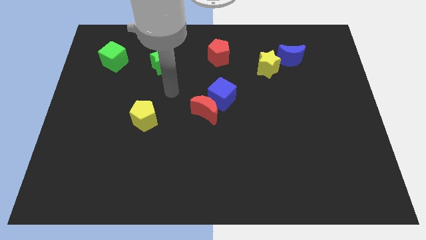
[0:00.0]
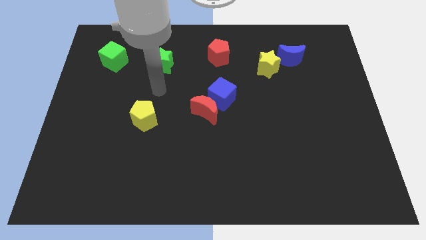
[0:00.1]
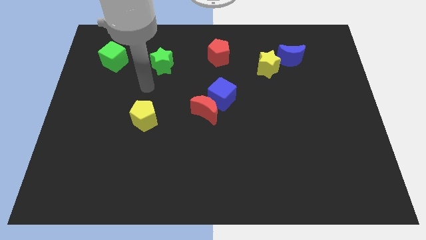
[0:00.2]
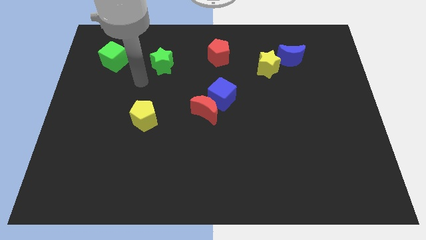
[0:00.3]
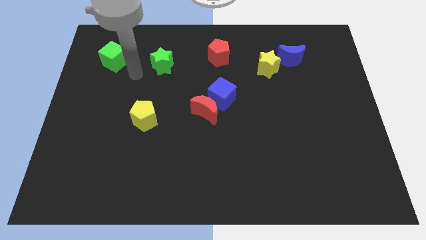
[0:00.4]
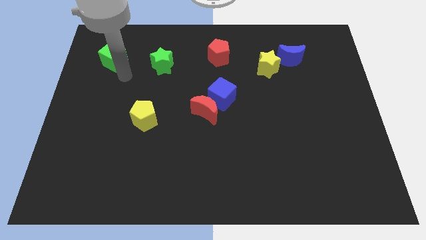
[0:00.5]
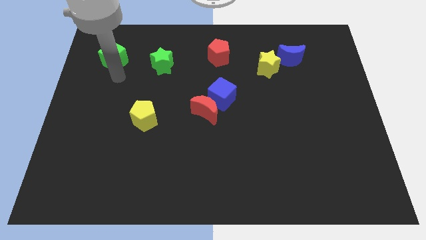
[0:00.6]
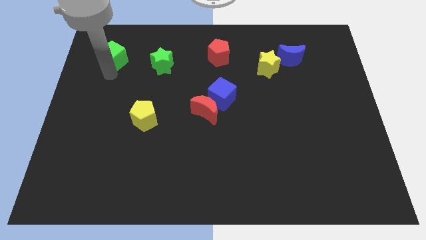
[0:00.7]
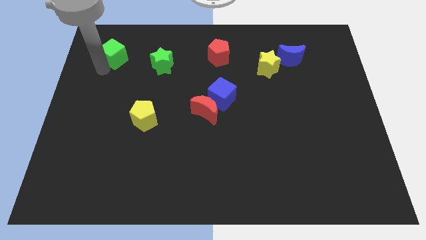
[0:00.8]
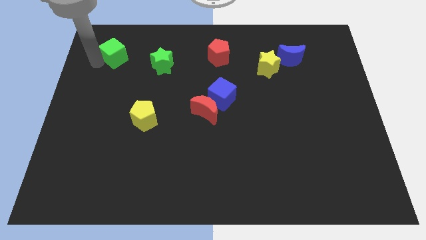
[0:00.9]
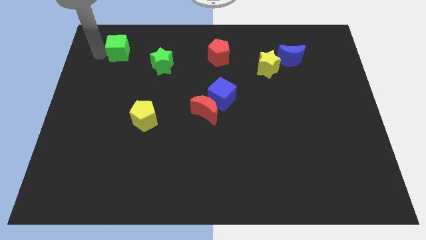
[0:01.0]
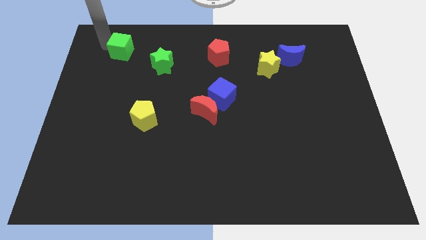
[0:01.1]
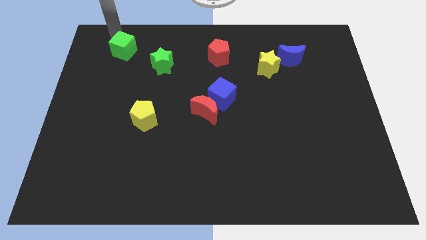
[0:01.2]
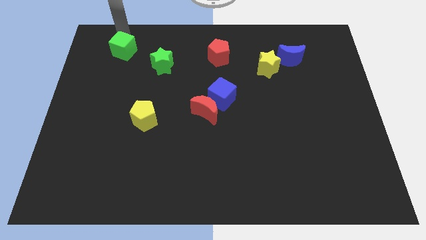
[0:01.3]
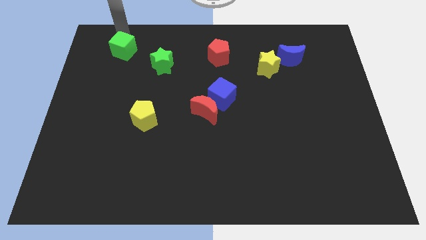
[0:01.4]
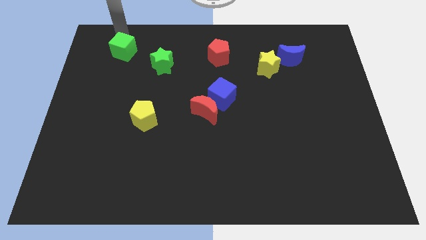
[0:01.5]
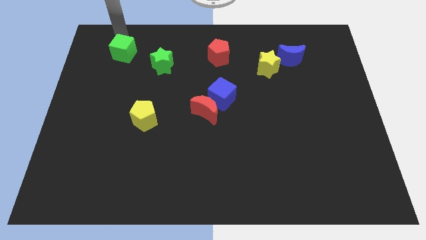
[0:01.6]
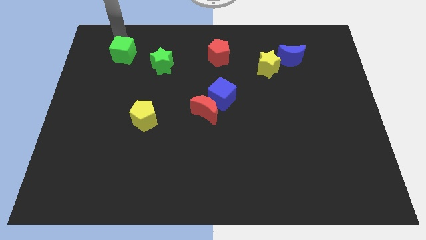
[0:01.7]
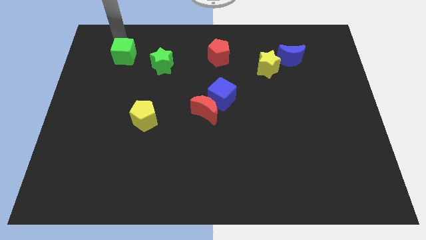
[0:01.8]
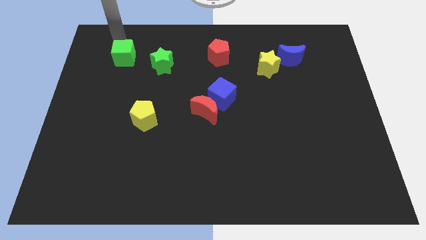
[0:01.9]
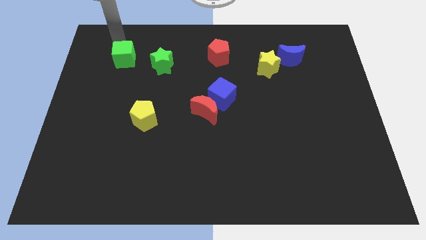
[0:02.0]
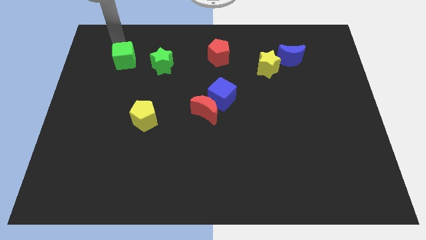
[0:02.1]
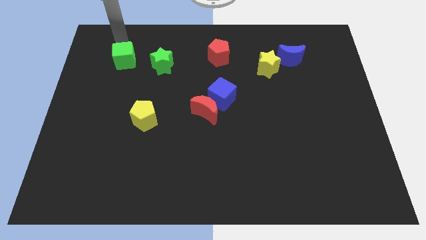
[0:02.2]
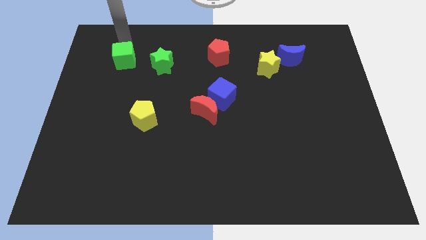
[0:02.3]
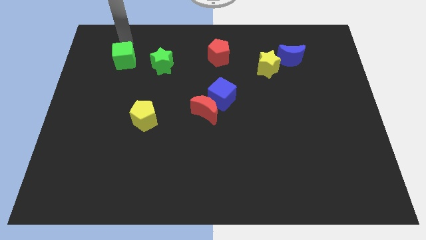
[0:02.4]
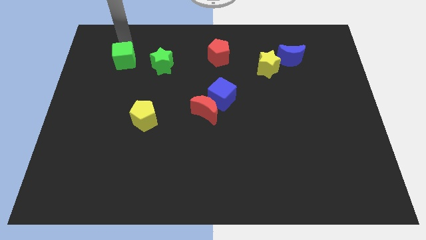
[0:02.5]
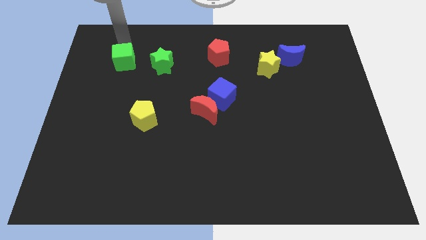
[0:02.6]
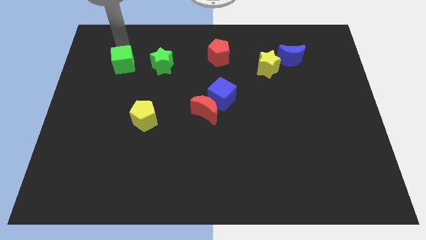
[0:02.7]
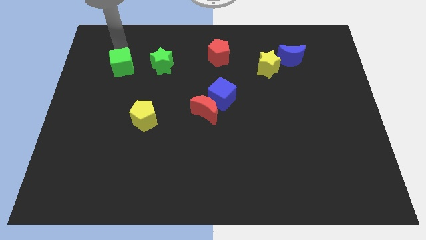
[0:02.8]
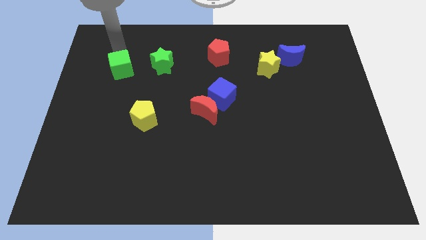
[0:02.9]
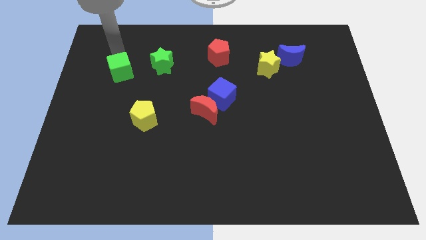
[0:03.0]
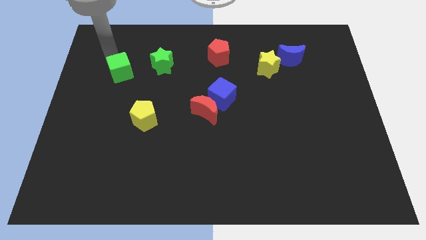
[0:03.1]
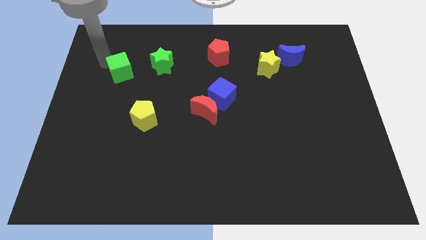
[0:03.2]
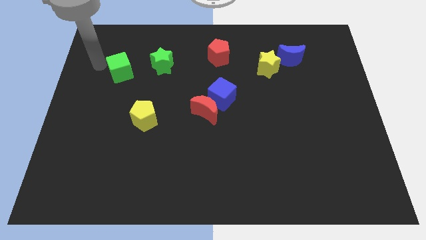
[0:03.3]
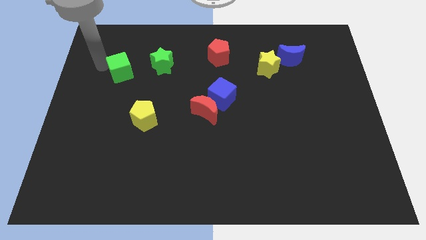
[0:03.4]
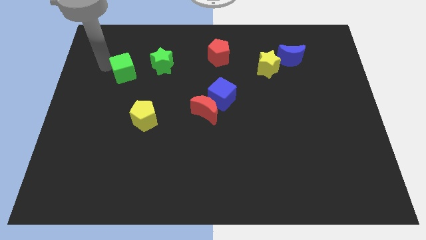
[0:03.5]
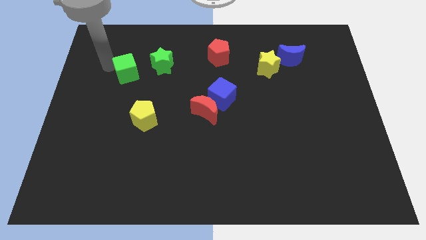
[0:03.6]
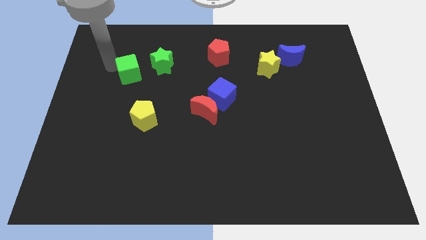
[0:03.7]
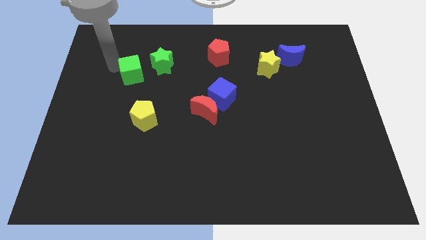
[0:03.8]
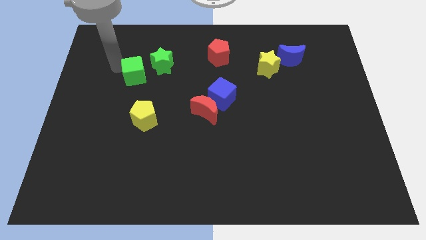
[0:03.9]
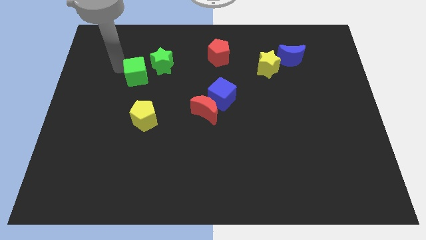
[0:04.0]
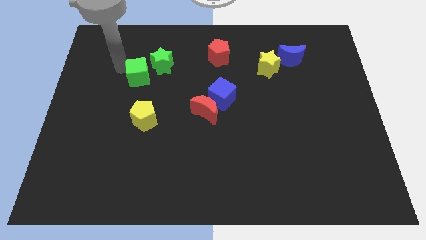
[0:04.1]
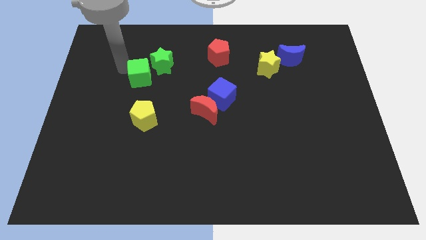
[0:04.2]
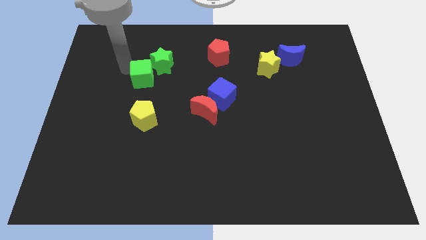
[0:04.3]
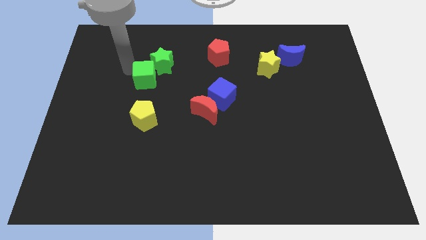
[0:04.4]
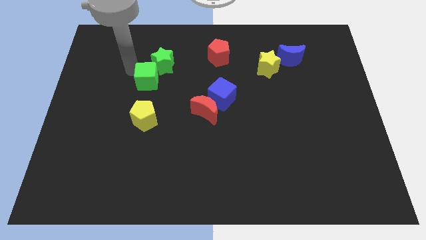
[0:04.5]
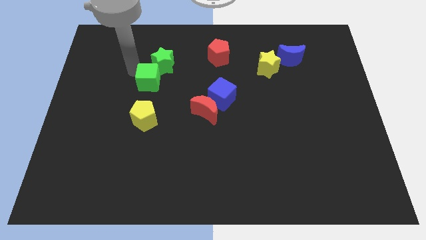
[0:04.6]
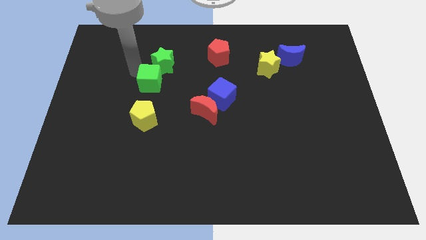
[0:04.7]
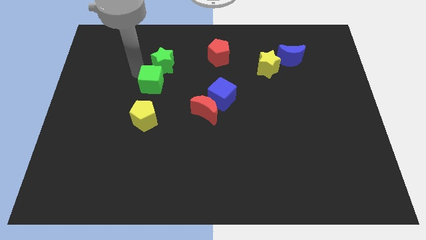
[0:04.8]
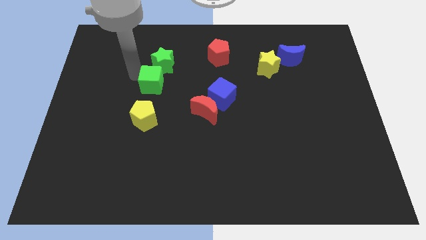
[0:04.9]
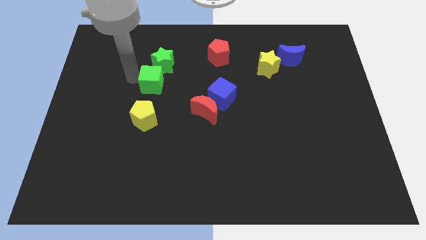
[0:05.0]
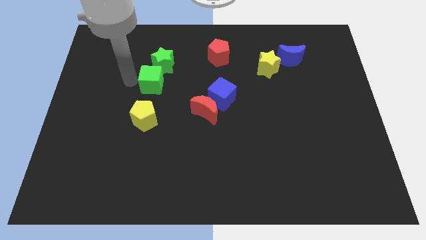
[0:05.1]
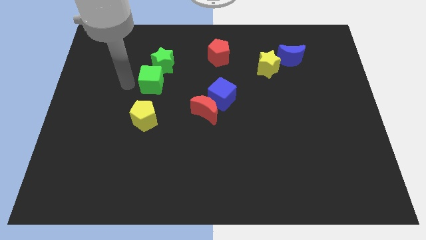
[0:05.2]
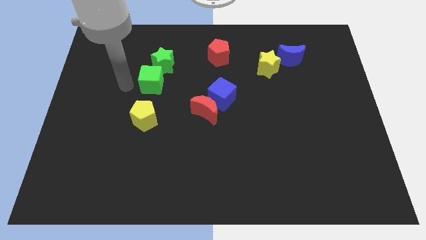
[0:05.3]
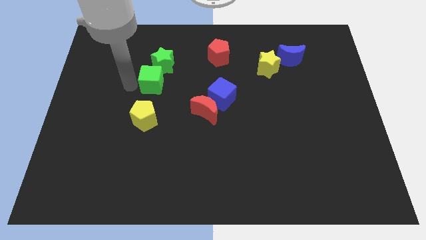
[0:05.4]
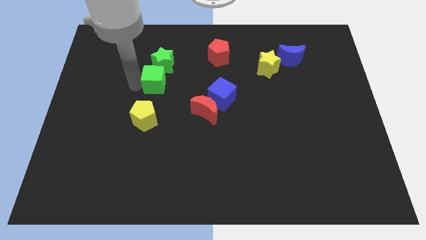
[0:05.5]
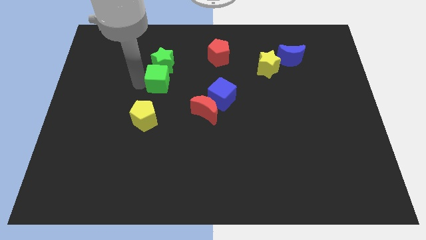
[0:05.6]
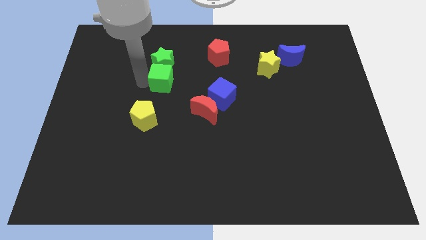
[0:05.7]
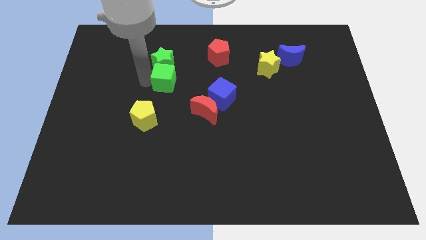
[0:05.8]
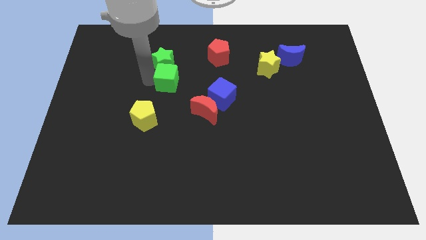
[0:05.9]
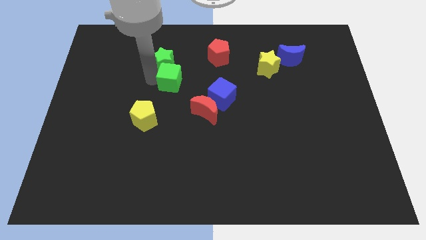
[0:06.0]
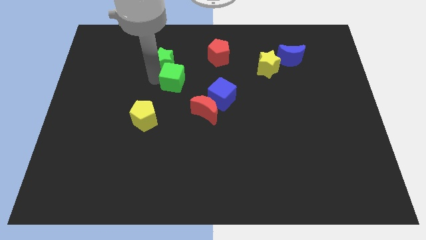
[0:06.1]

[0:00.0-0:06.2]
push the green cube diagonally up and to the left of the red moon

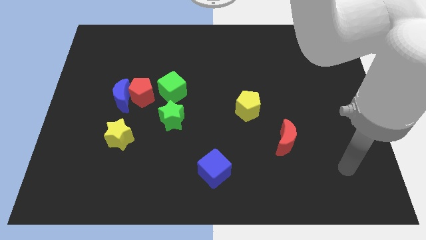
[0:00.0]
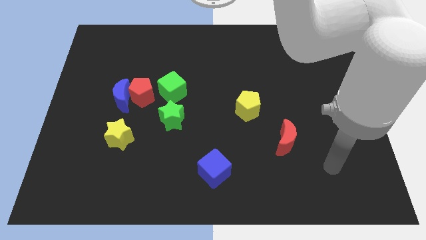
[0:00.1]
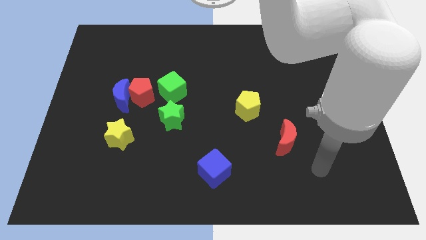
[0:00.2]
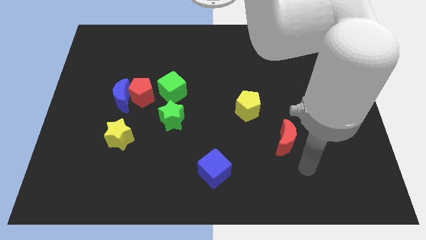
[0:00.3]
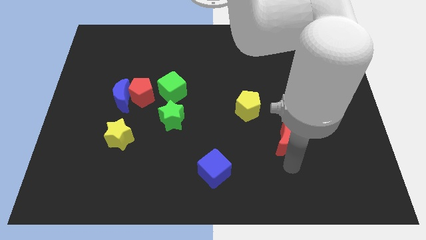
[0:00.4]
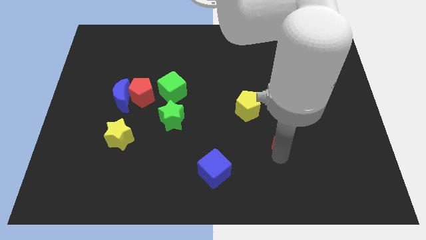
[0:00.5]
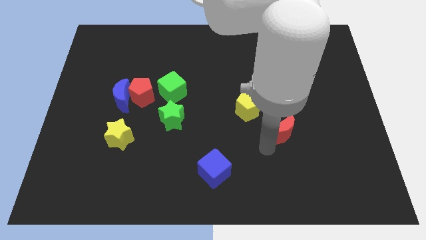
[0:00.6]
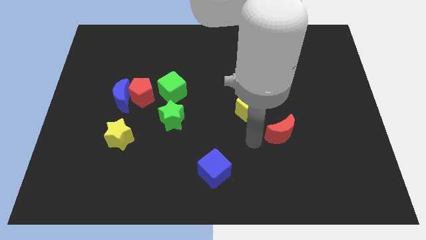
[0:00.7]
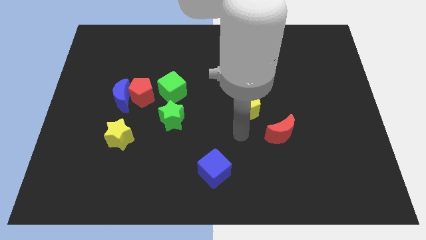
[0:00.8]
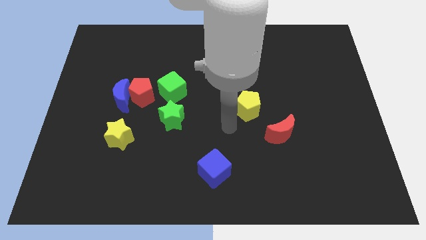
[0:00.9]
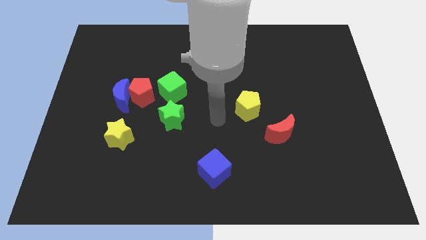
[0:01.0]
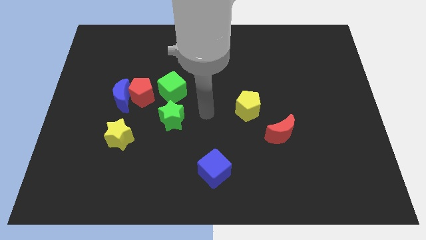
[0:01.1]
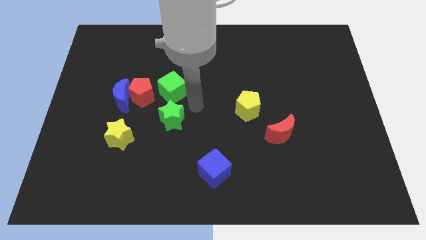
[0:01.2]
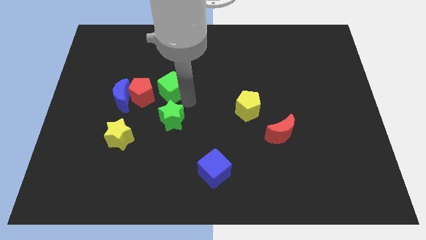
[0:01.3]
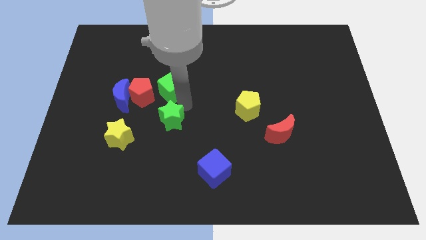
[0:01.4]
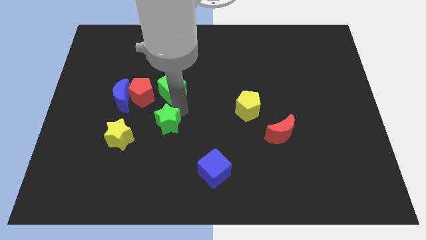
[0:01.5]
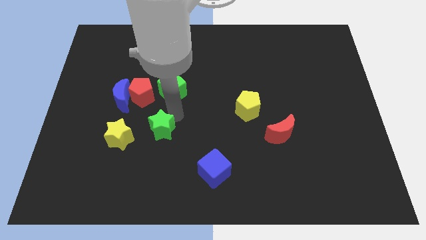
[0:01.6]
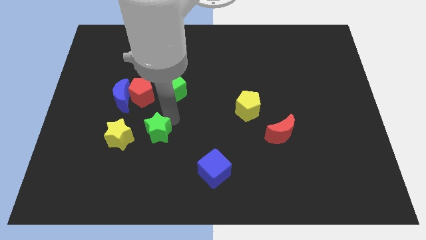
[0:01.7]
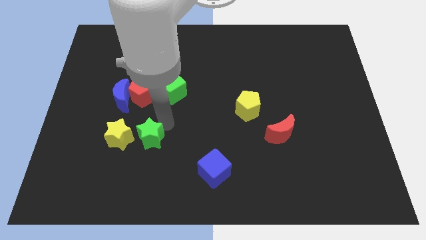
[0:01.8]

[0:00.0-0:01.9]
push the green star to the bottom right side of the yellow star
